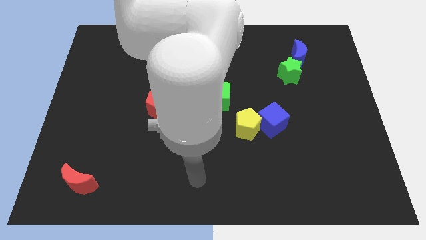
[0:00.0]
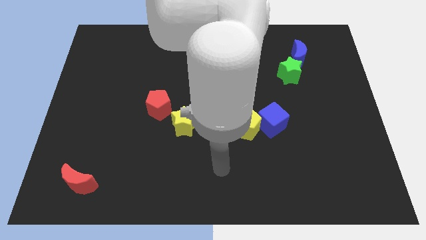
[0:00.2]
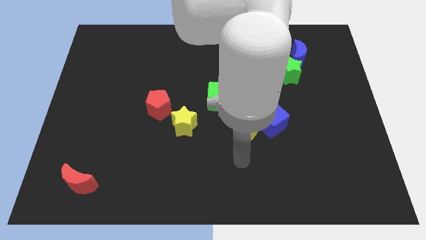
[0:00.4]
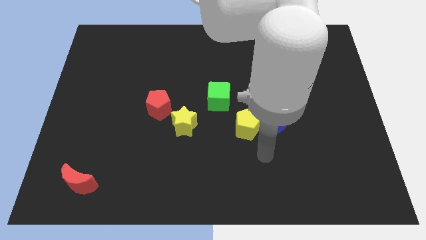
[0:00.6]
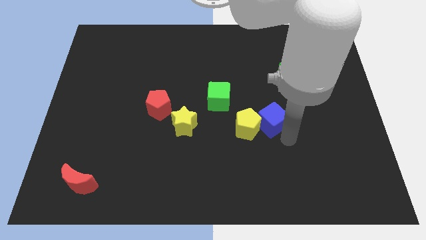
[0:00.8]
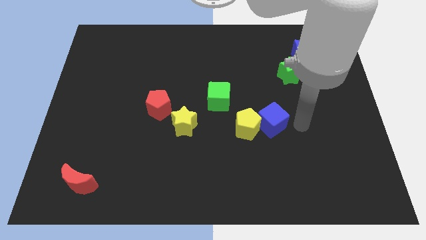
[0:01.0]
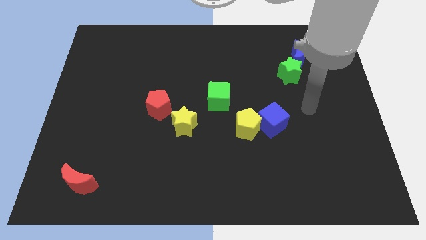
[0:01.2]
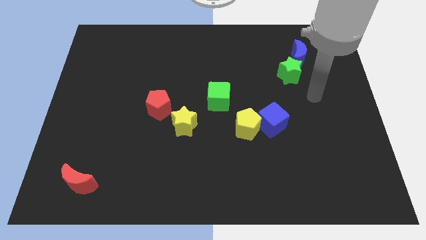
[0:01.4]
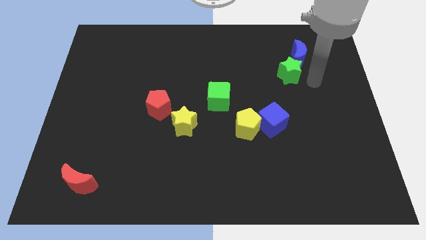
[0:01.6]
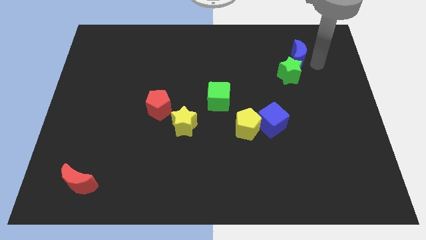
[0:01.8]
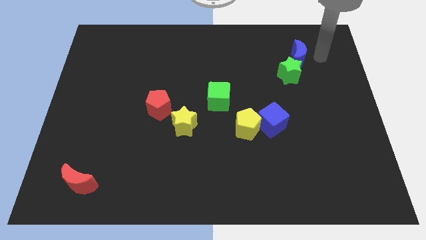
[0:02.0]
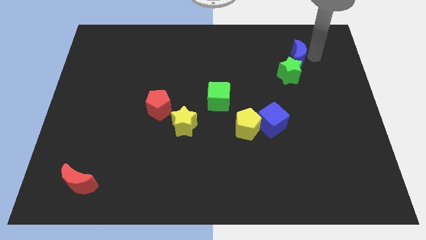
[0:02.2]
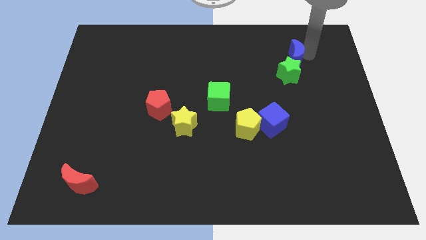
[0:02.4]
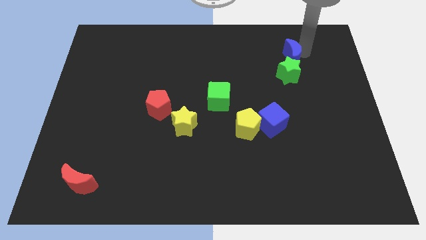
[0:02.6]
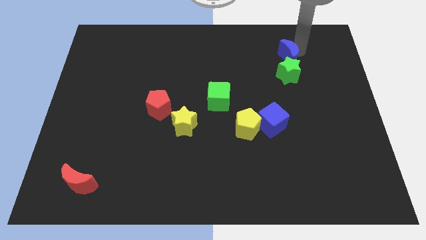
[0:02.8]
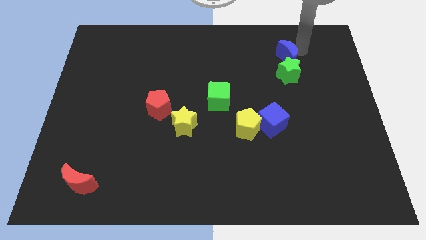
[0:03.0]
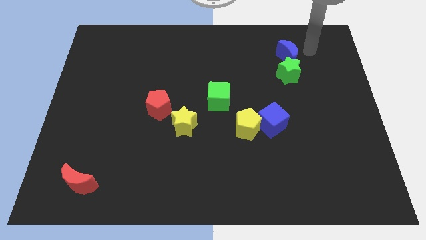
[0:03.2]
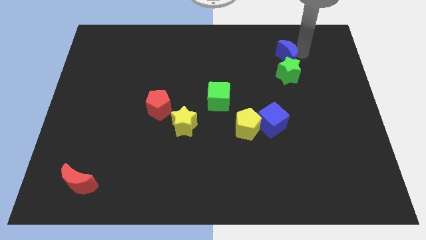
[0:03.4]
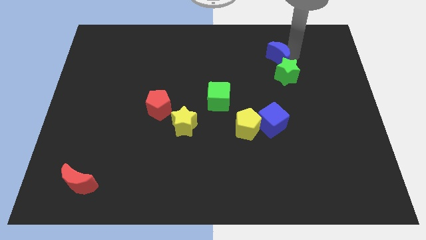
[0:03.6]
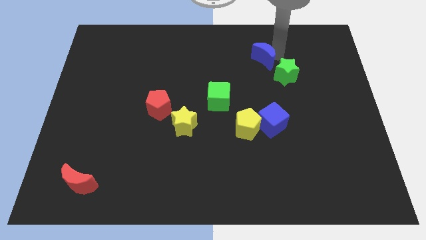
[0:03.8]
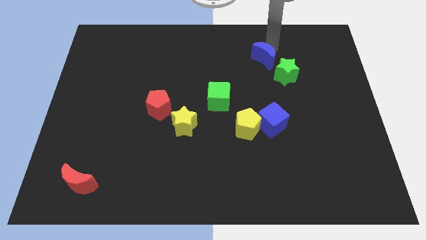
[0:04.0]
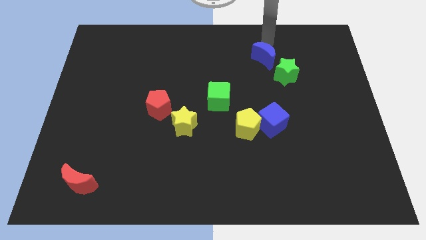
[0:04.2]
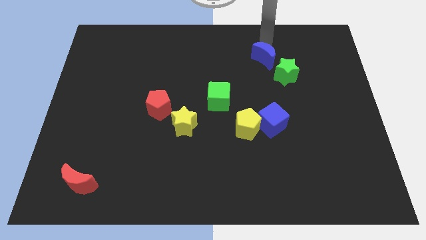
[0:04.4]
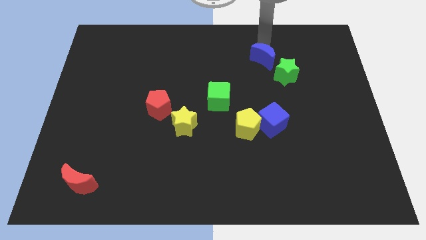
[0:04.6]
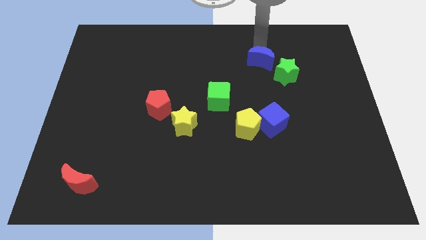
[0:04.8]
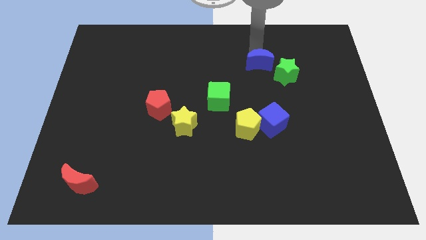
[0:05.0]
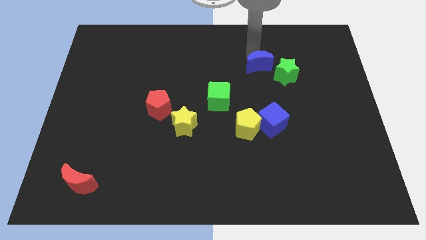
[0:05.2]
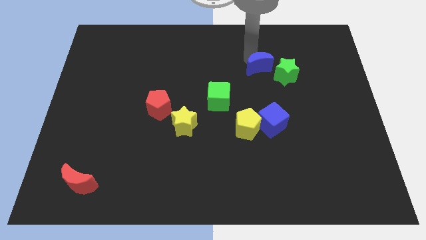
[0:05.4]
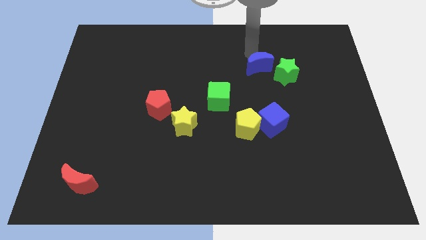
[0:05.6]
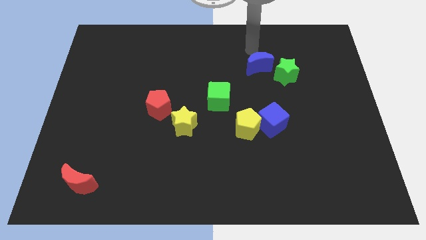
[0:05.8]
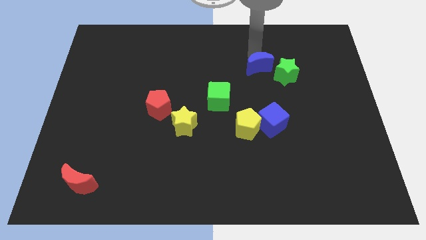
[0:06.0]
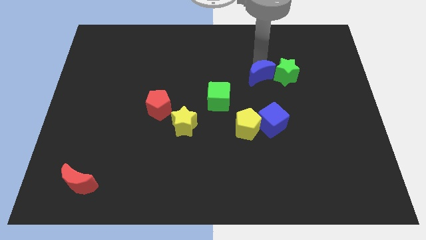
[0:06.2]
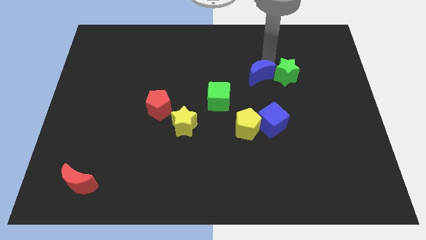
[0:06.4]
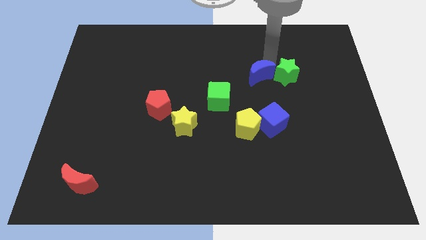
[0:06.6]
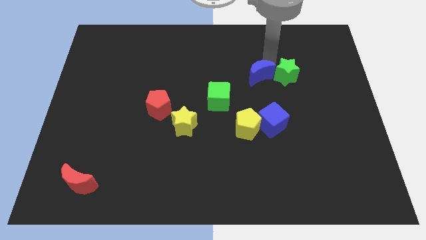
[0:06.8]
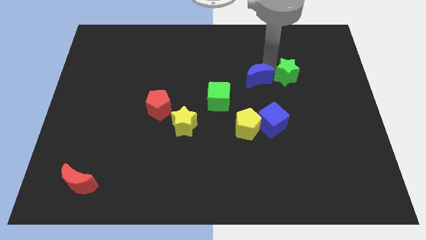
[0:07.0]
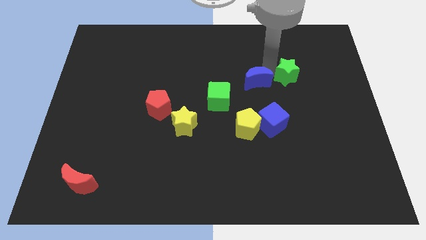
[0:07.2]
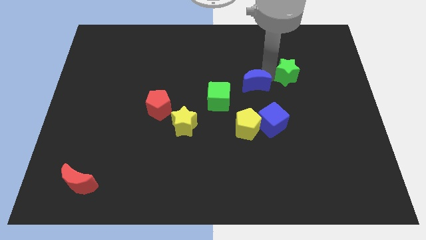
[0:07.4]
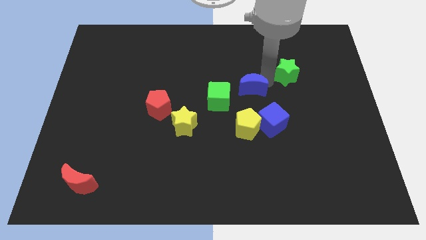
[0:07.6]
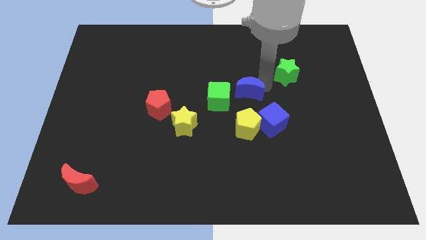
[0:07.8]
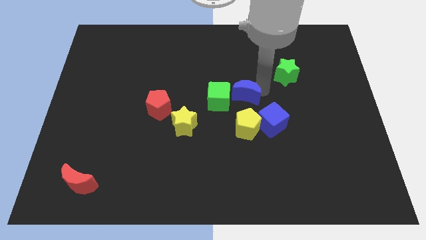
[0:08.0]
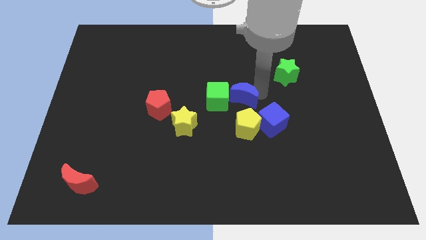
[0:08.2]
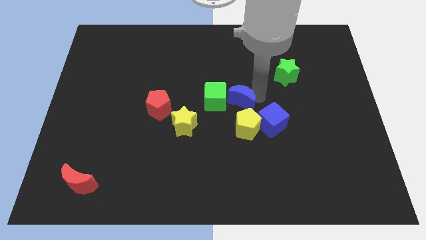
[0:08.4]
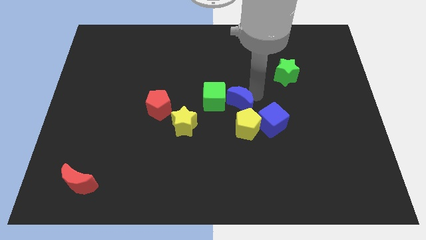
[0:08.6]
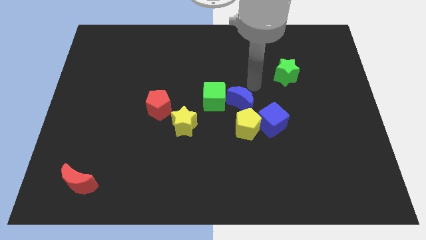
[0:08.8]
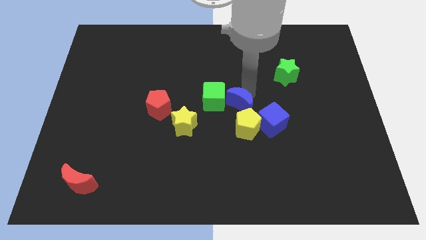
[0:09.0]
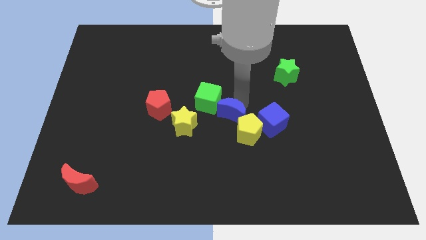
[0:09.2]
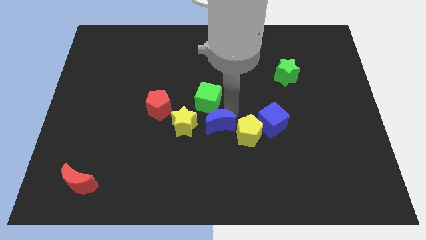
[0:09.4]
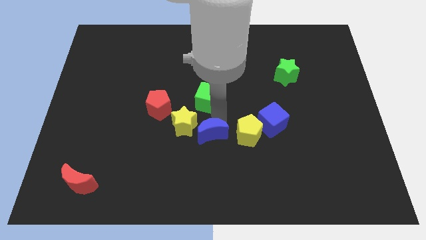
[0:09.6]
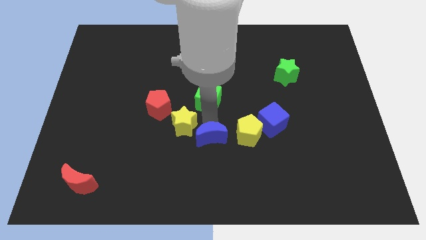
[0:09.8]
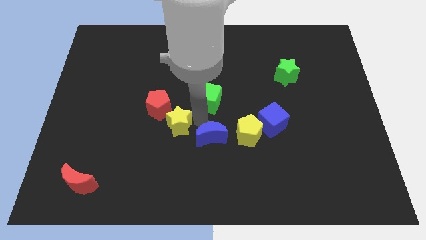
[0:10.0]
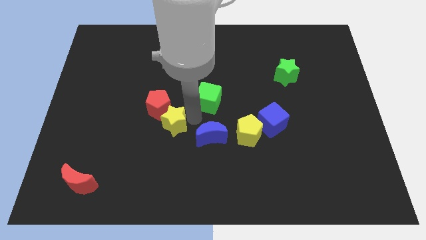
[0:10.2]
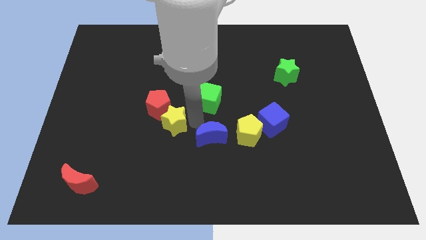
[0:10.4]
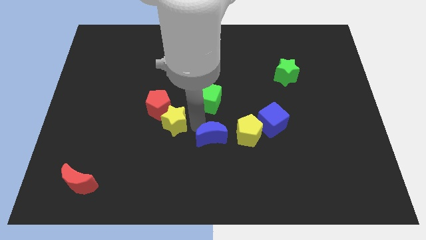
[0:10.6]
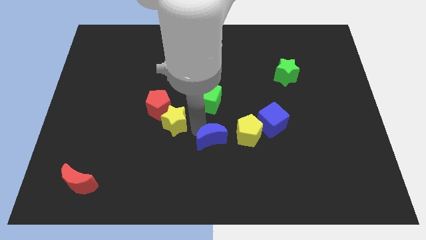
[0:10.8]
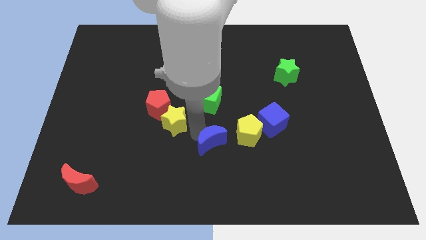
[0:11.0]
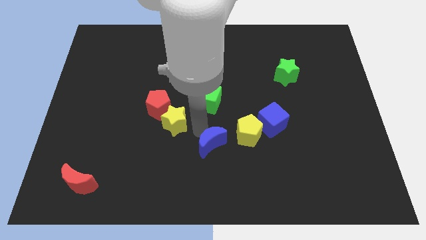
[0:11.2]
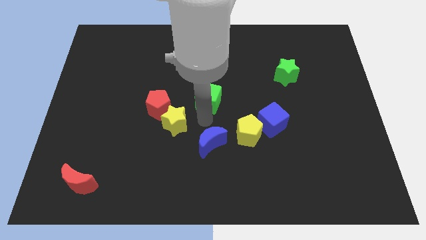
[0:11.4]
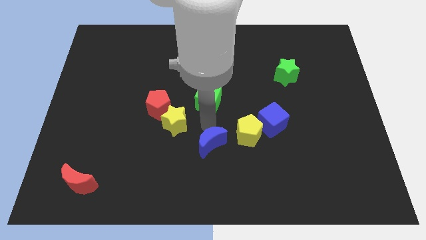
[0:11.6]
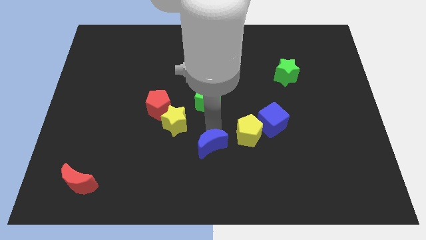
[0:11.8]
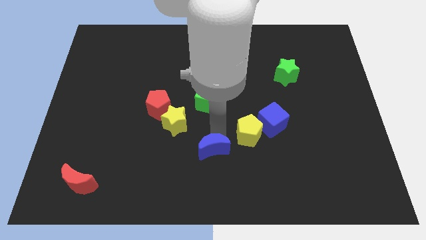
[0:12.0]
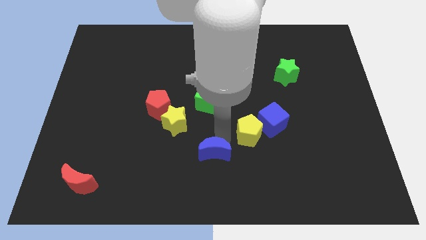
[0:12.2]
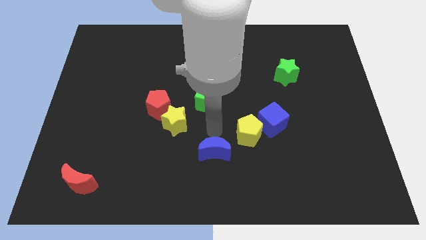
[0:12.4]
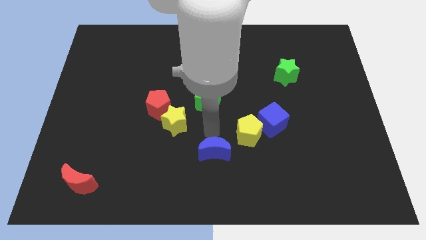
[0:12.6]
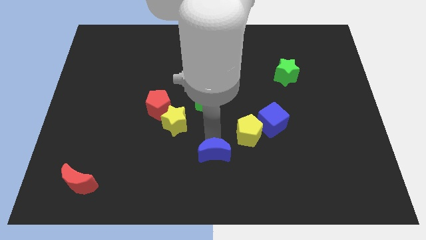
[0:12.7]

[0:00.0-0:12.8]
slide the blue moon to the bottom
